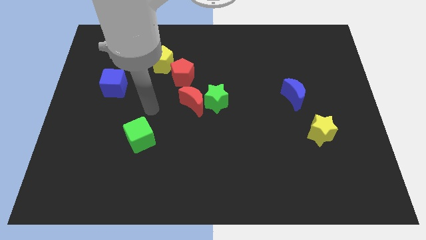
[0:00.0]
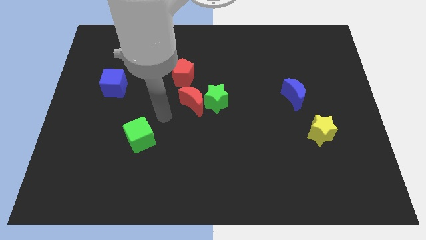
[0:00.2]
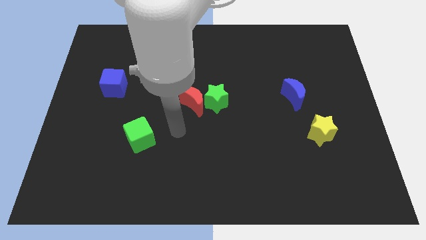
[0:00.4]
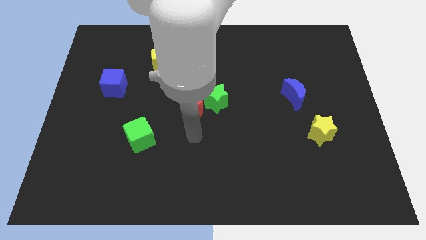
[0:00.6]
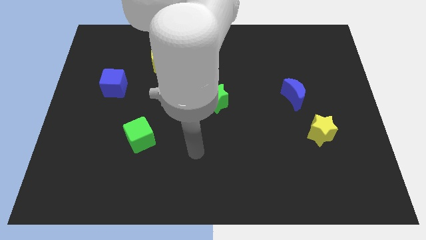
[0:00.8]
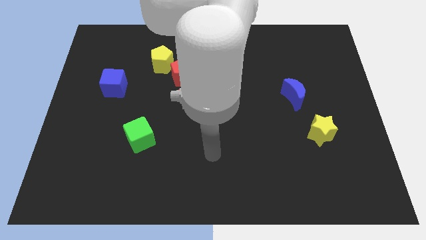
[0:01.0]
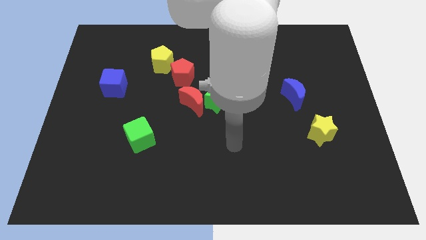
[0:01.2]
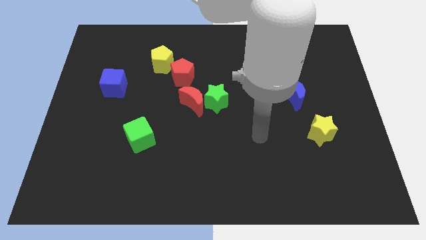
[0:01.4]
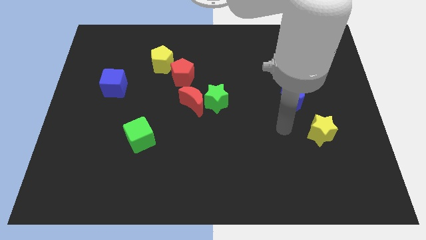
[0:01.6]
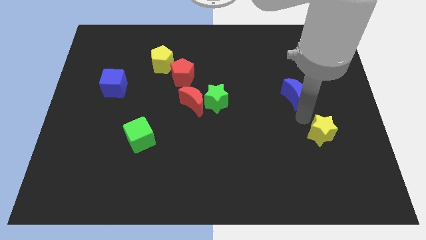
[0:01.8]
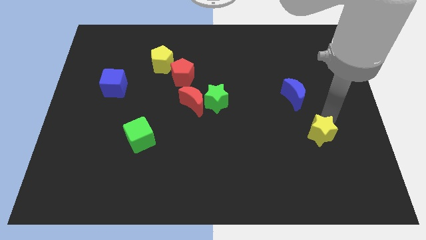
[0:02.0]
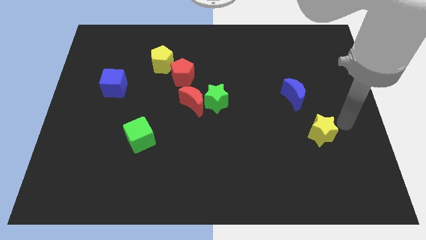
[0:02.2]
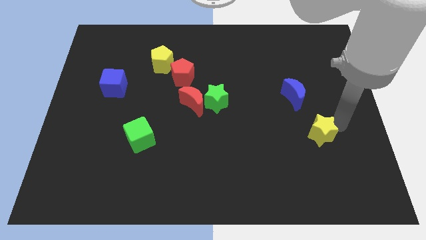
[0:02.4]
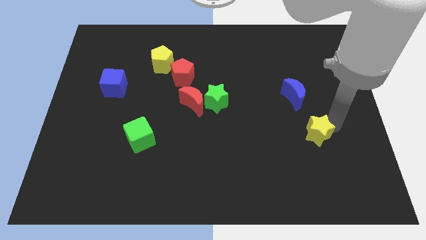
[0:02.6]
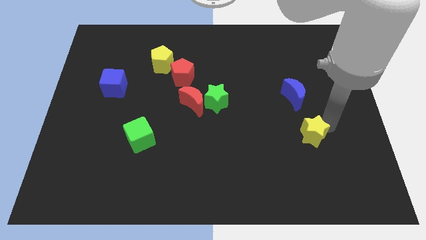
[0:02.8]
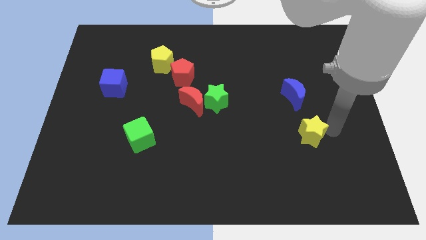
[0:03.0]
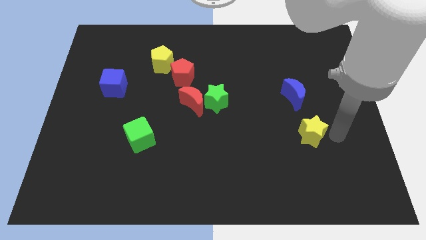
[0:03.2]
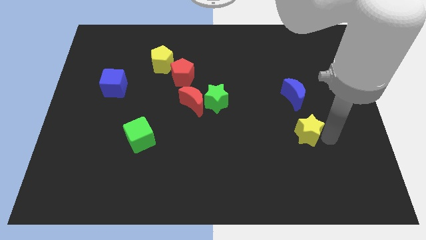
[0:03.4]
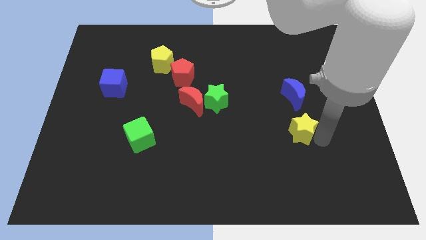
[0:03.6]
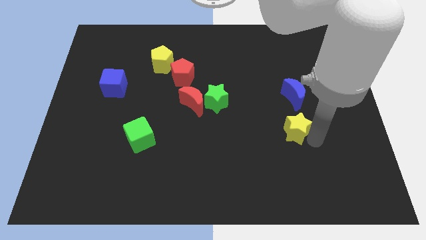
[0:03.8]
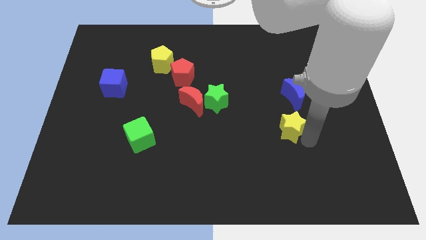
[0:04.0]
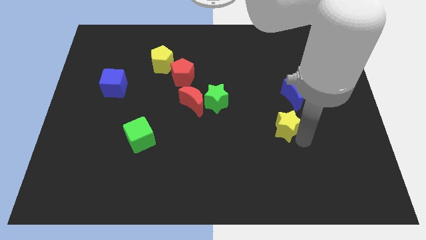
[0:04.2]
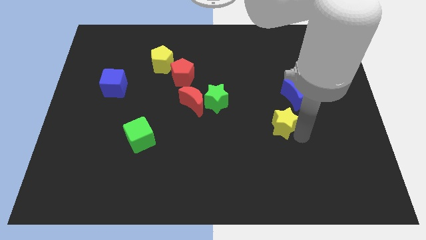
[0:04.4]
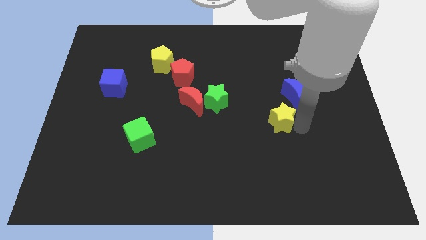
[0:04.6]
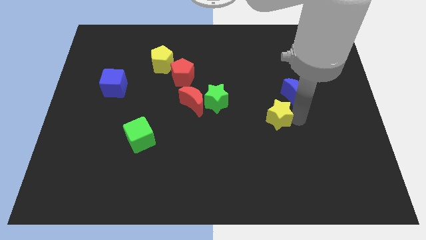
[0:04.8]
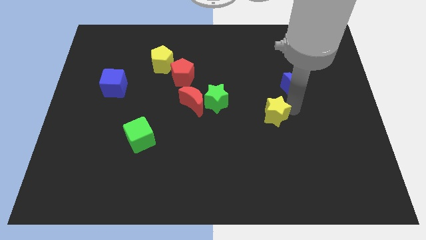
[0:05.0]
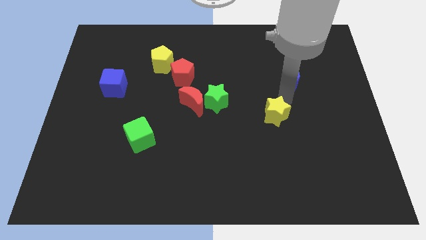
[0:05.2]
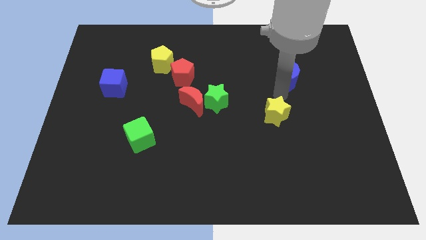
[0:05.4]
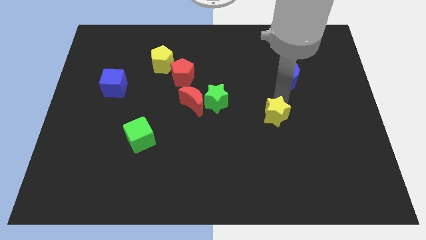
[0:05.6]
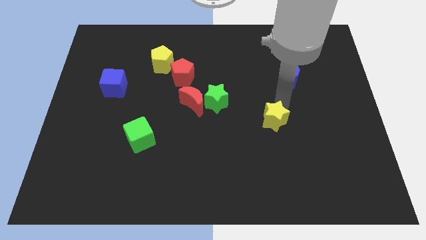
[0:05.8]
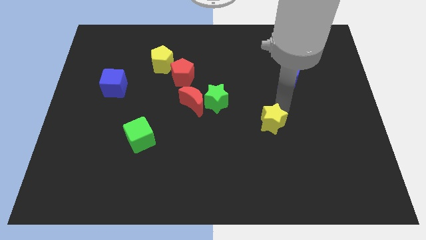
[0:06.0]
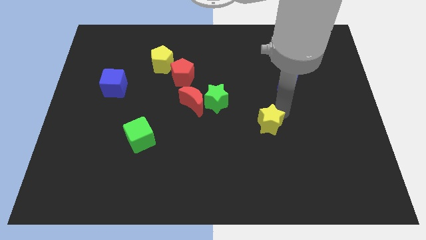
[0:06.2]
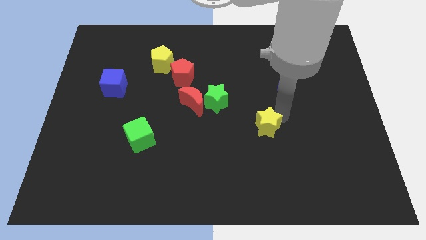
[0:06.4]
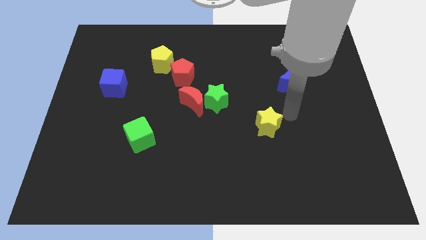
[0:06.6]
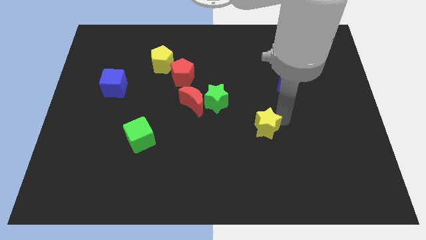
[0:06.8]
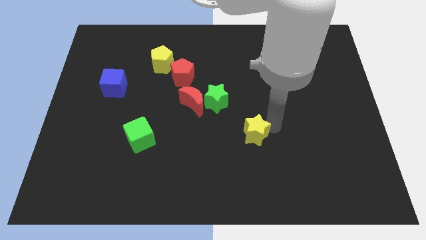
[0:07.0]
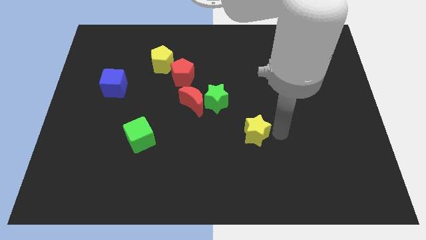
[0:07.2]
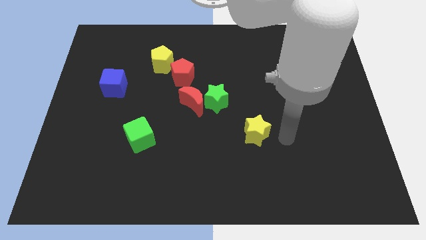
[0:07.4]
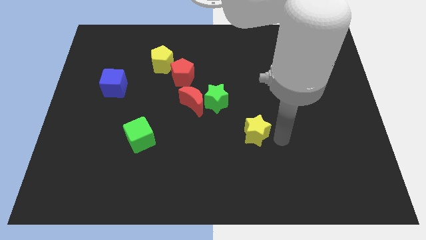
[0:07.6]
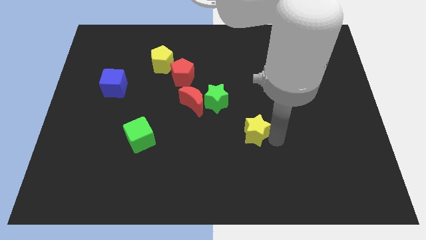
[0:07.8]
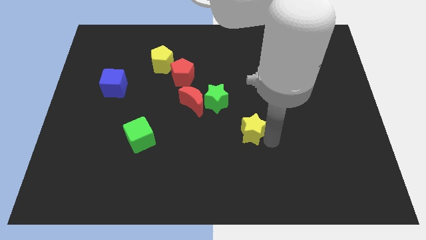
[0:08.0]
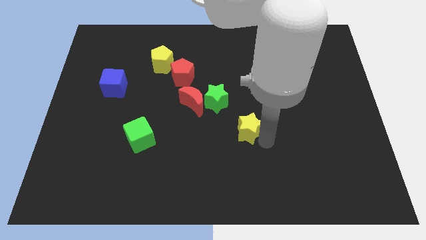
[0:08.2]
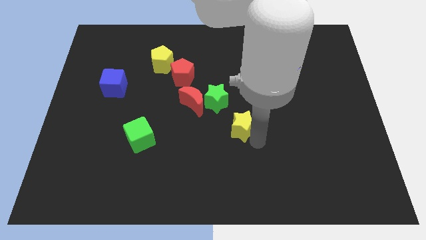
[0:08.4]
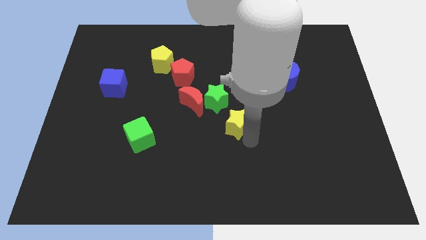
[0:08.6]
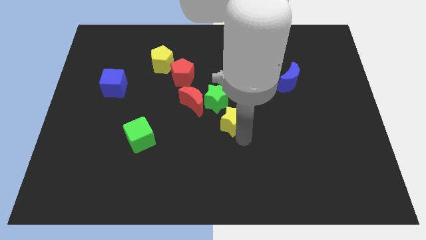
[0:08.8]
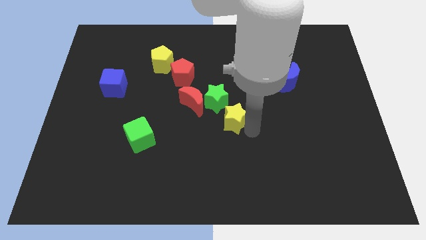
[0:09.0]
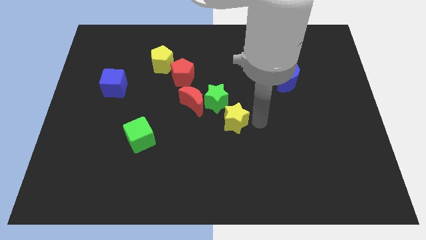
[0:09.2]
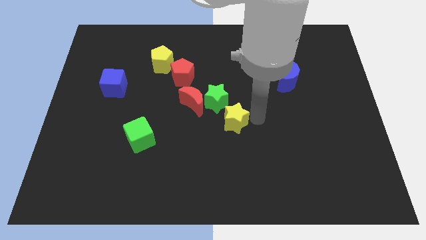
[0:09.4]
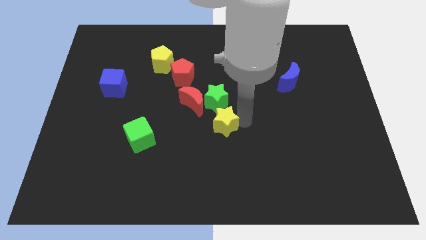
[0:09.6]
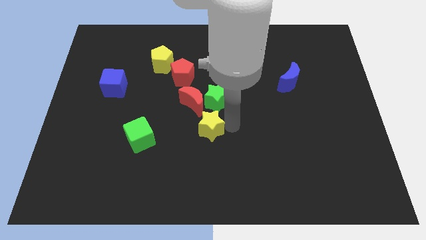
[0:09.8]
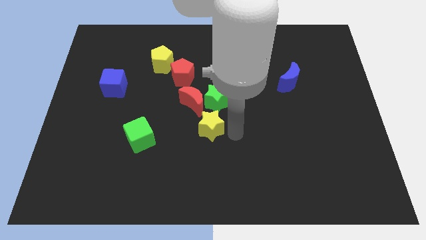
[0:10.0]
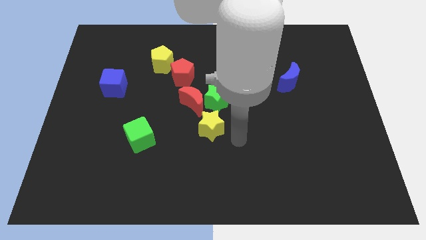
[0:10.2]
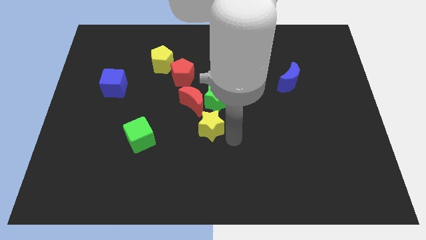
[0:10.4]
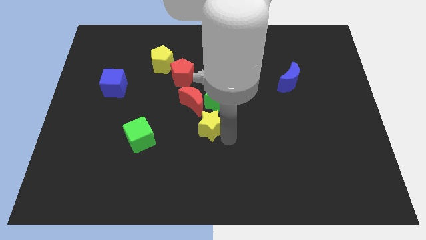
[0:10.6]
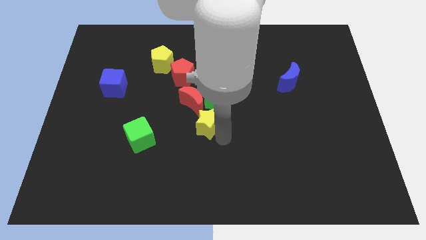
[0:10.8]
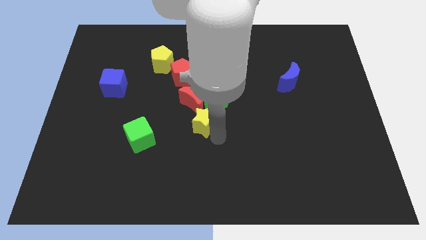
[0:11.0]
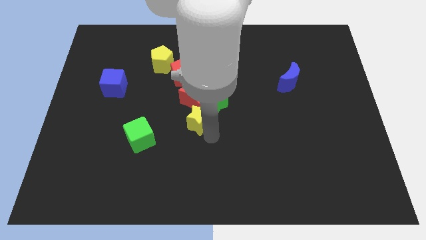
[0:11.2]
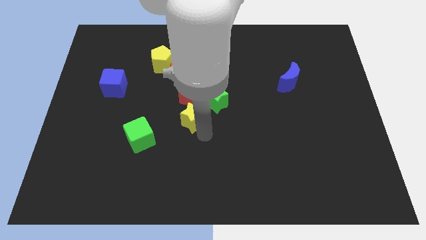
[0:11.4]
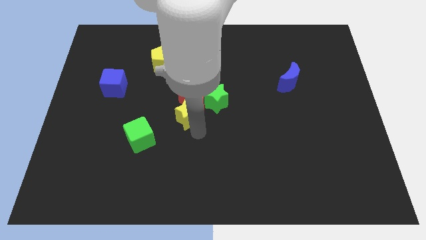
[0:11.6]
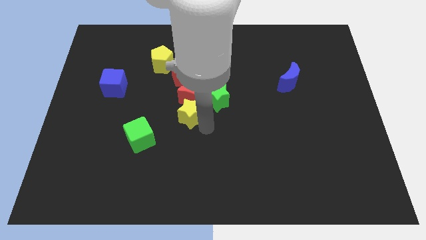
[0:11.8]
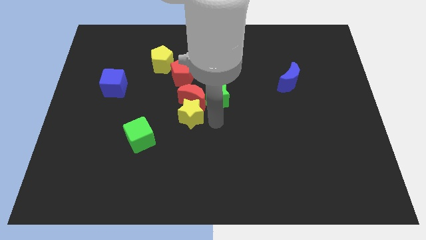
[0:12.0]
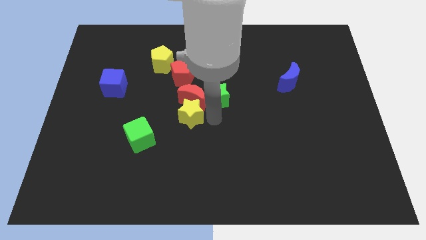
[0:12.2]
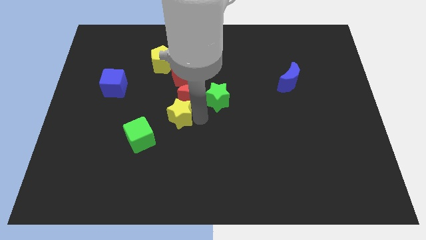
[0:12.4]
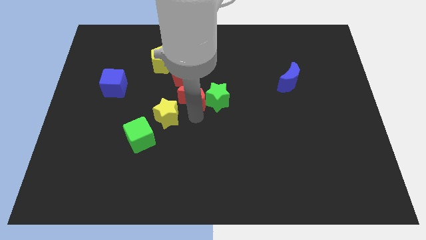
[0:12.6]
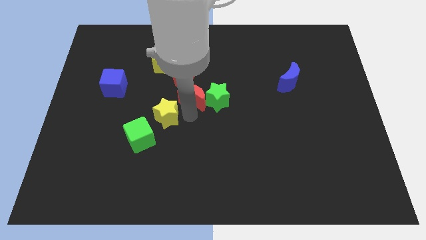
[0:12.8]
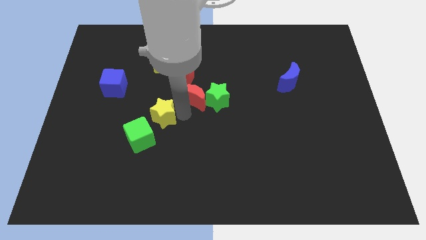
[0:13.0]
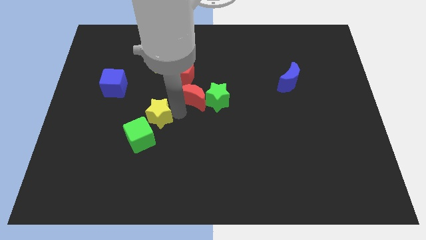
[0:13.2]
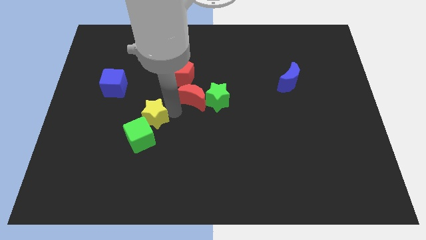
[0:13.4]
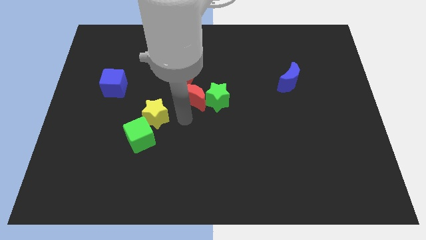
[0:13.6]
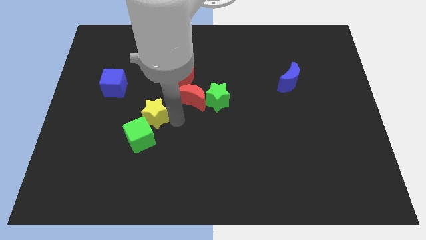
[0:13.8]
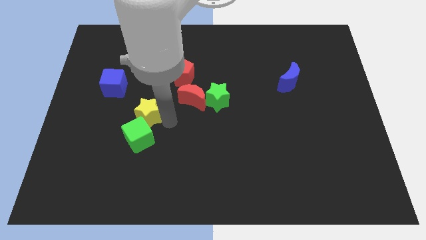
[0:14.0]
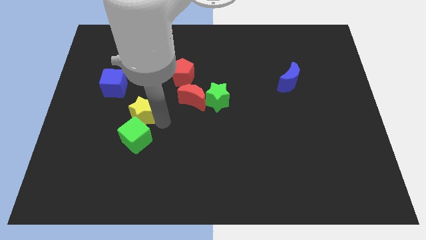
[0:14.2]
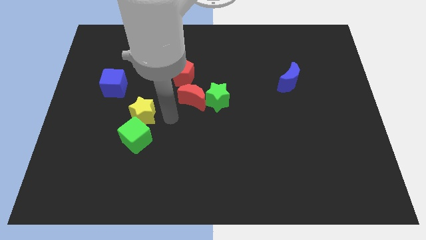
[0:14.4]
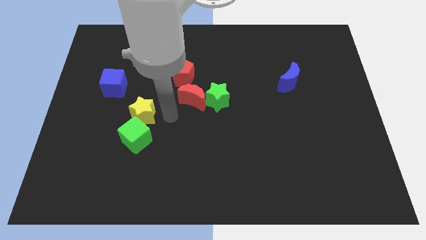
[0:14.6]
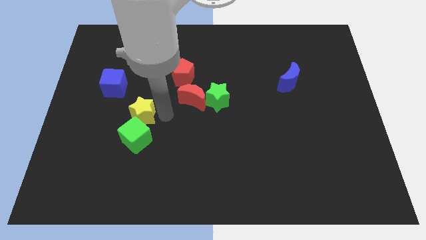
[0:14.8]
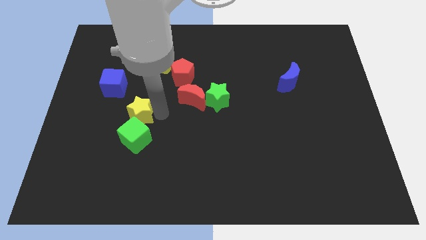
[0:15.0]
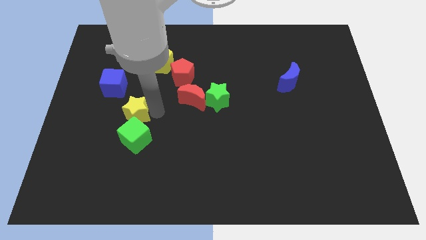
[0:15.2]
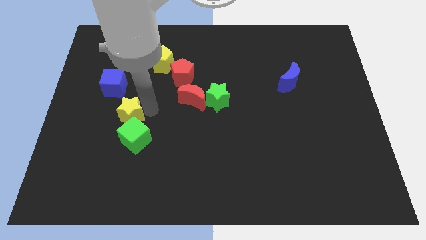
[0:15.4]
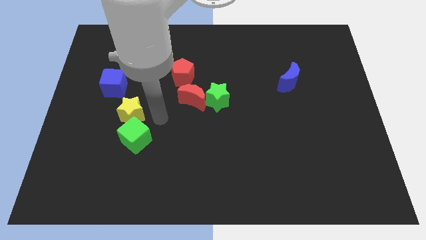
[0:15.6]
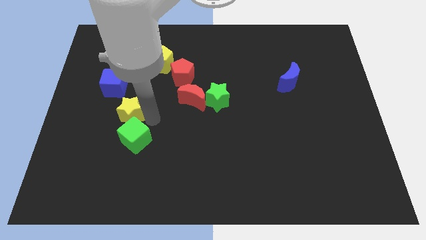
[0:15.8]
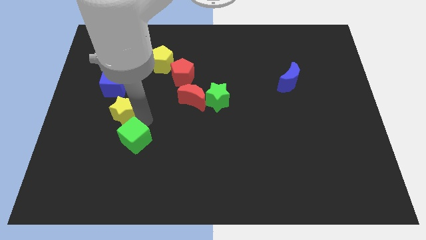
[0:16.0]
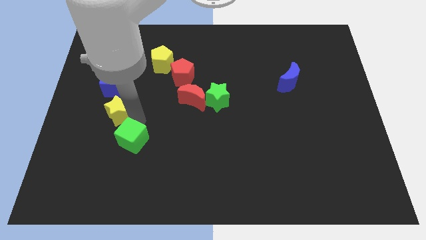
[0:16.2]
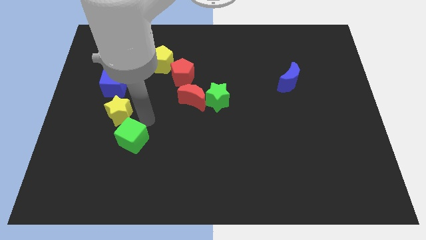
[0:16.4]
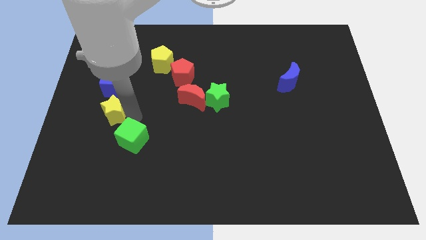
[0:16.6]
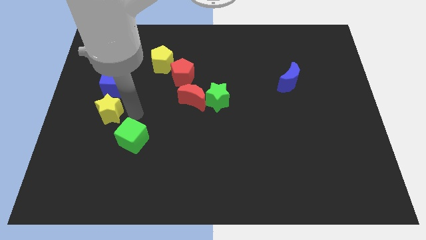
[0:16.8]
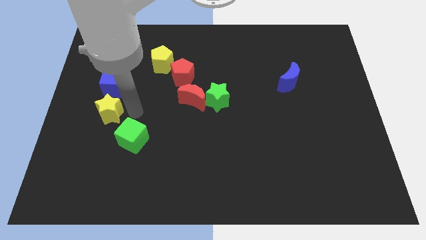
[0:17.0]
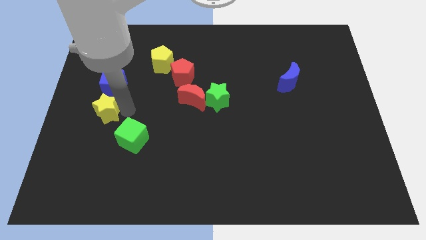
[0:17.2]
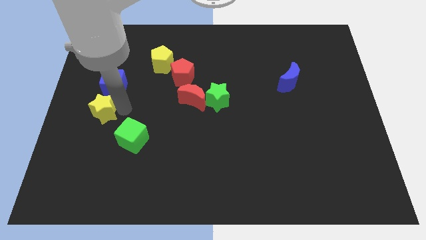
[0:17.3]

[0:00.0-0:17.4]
slide the yellow star to the left side
